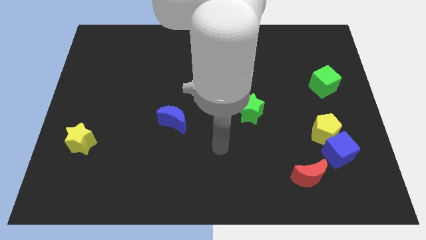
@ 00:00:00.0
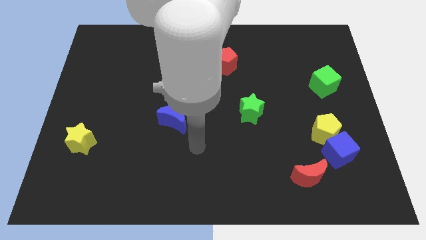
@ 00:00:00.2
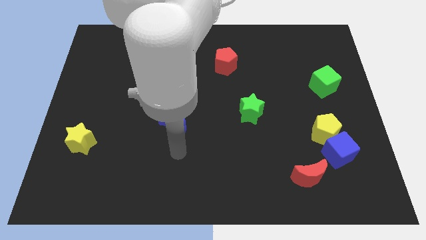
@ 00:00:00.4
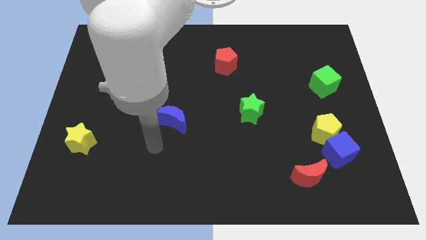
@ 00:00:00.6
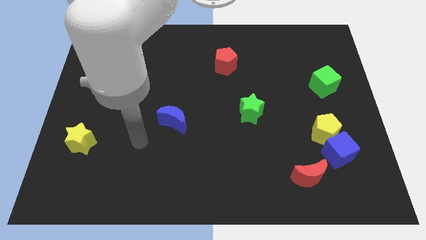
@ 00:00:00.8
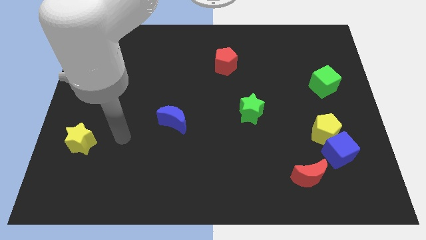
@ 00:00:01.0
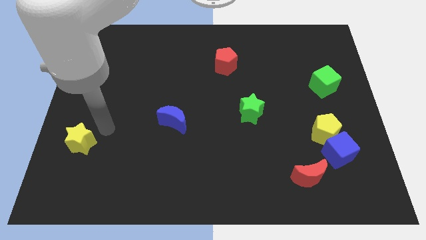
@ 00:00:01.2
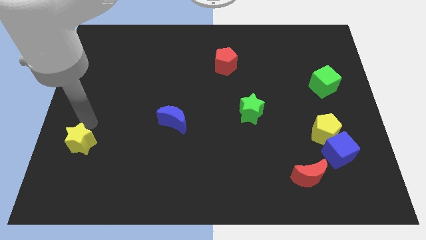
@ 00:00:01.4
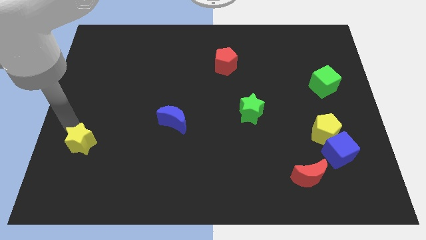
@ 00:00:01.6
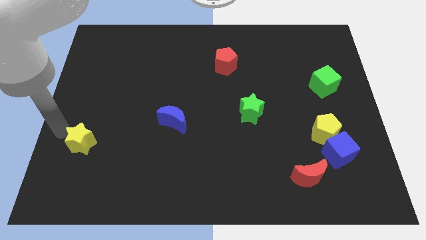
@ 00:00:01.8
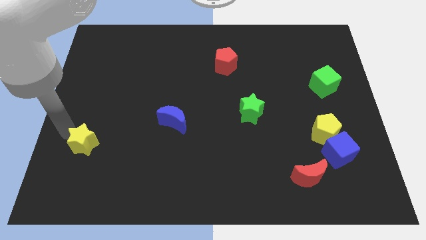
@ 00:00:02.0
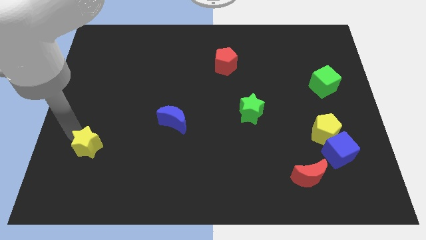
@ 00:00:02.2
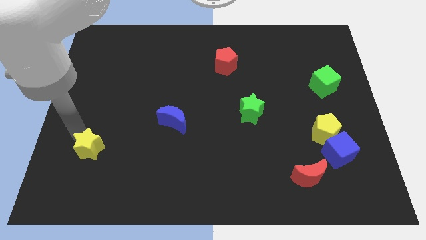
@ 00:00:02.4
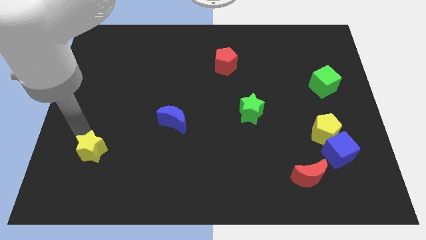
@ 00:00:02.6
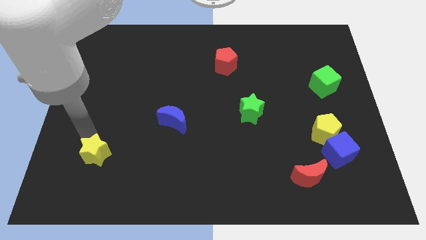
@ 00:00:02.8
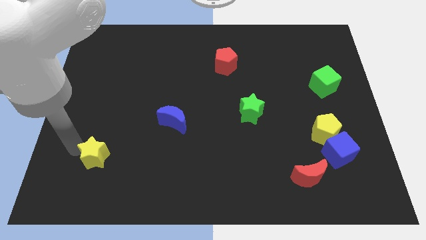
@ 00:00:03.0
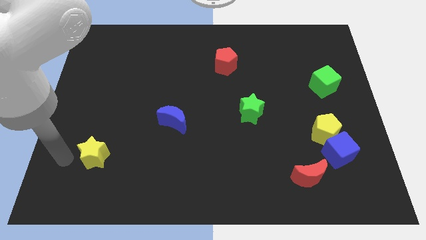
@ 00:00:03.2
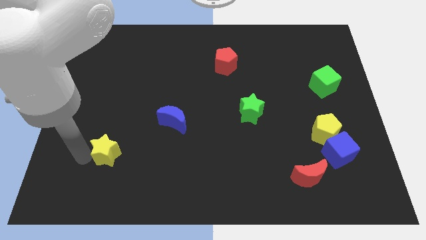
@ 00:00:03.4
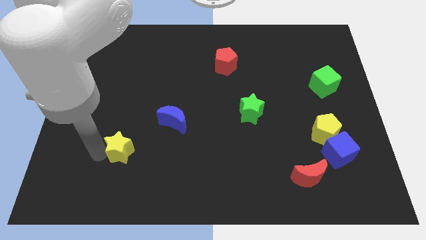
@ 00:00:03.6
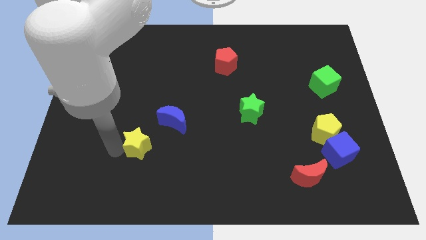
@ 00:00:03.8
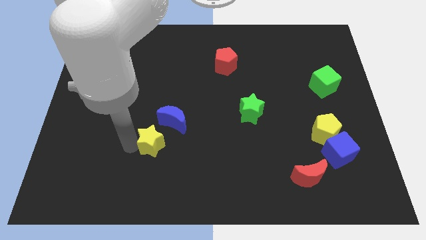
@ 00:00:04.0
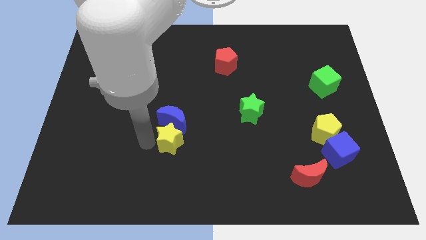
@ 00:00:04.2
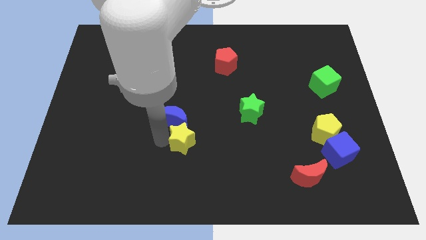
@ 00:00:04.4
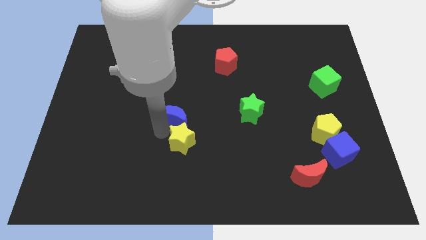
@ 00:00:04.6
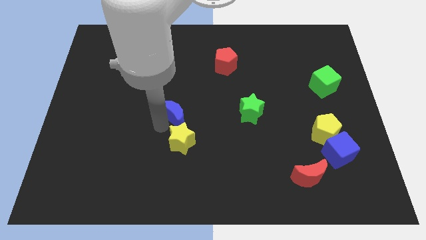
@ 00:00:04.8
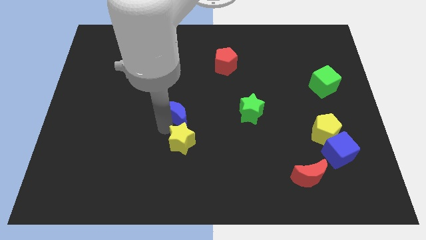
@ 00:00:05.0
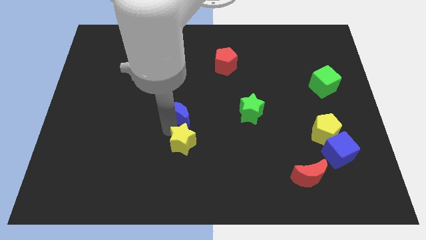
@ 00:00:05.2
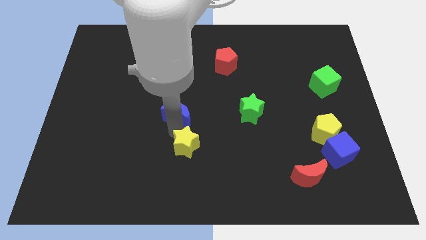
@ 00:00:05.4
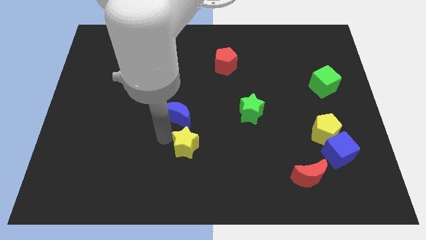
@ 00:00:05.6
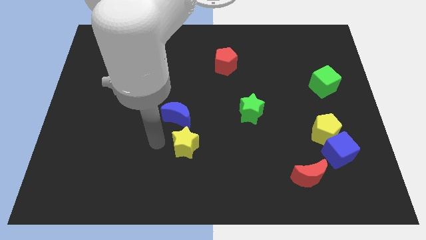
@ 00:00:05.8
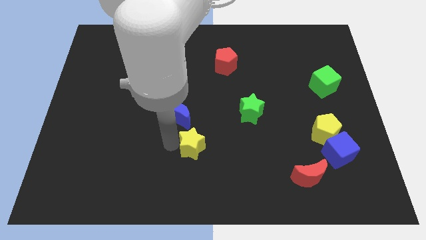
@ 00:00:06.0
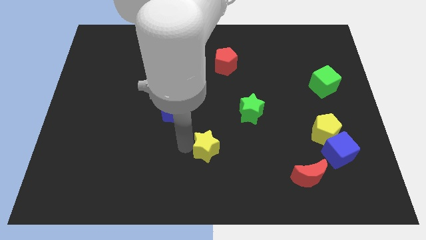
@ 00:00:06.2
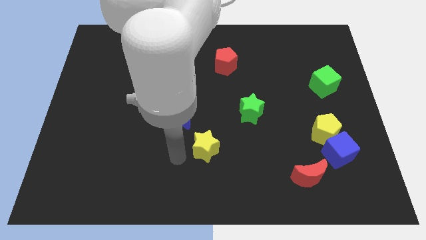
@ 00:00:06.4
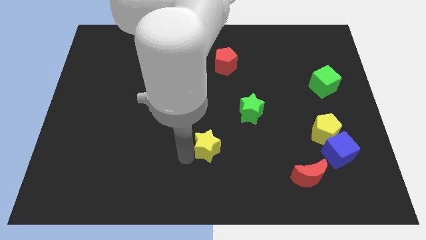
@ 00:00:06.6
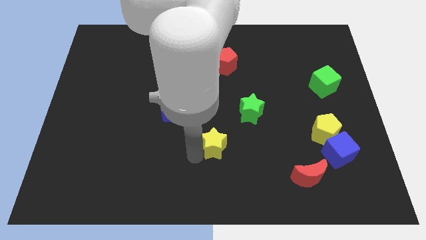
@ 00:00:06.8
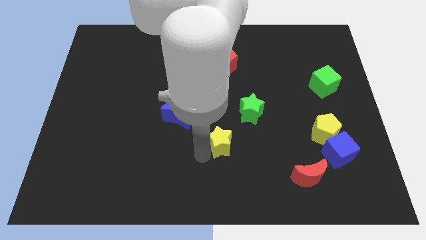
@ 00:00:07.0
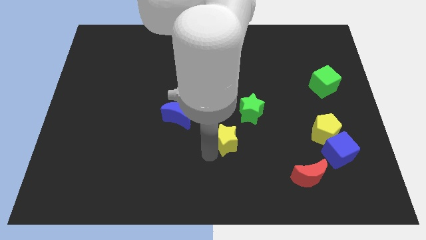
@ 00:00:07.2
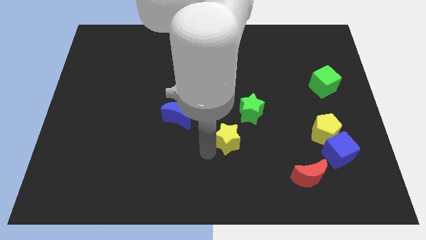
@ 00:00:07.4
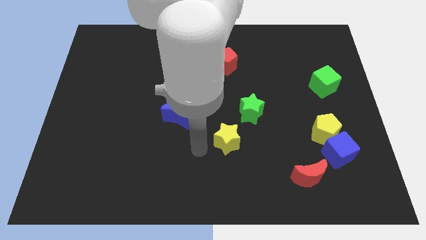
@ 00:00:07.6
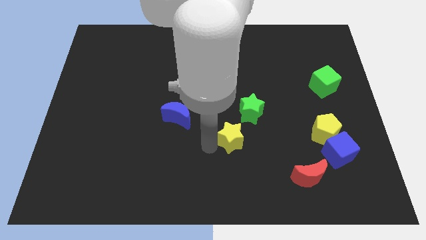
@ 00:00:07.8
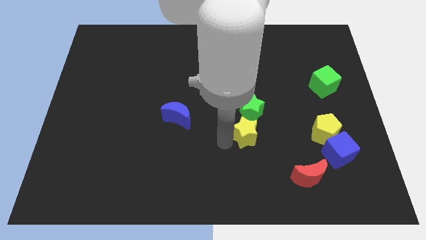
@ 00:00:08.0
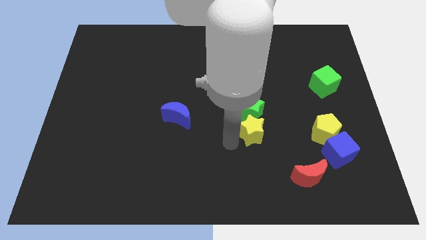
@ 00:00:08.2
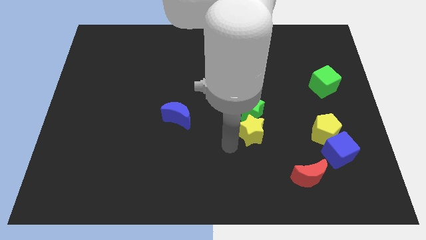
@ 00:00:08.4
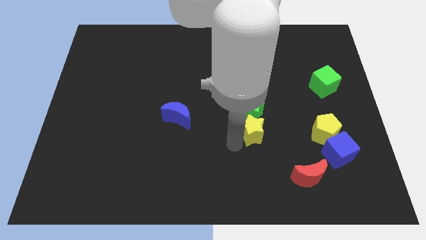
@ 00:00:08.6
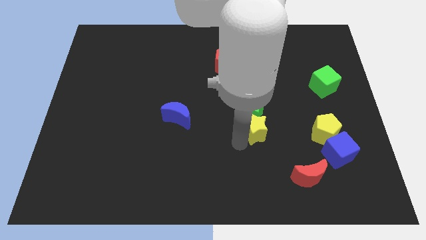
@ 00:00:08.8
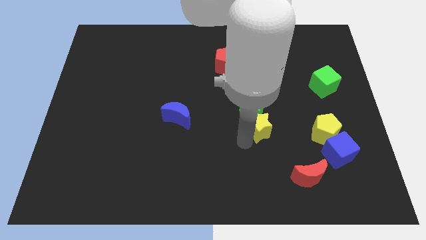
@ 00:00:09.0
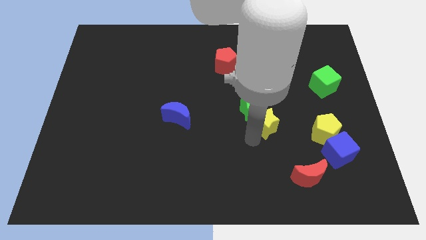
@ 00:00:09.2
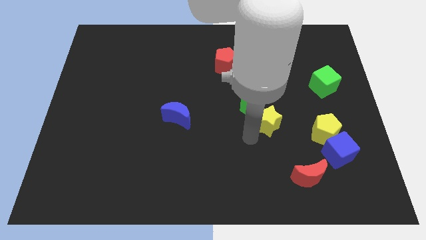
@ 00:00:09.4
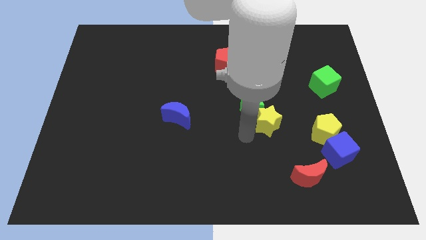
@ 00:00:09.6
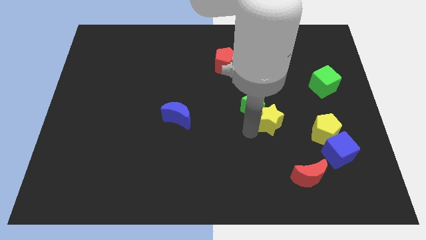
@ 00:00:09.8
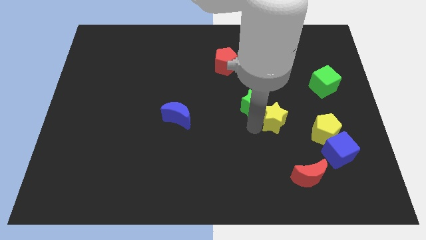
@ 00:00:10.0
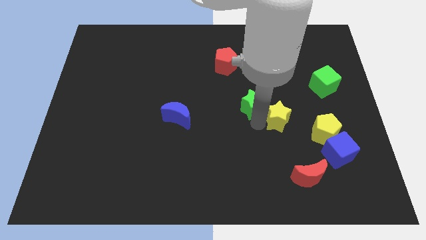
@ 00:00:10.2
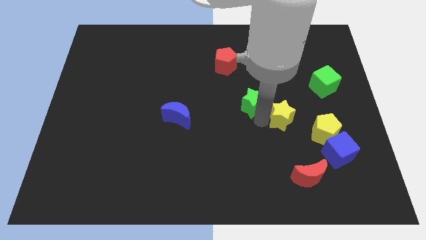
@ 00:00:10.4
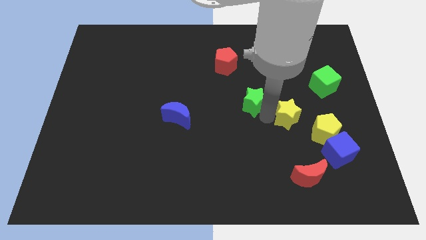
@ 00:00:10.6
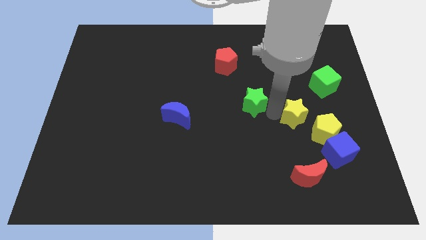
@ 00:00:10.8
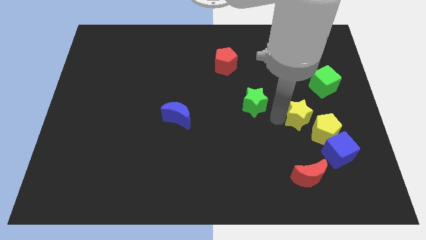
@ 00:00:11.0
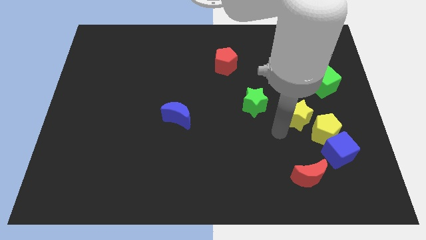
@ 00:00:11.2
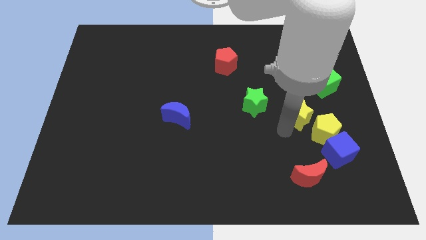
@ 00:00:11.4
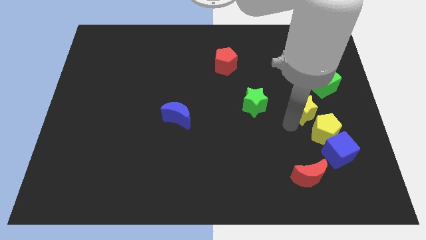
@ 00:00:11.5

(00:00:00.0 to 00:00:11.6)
push the yellow star to the top side of the yellow pentagon
